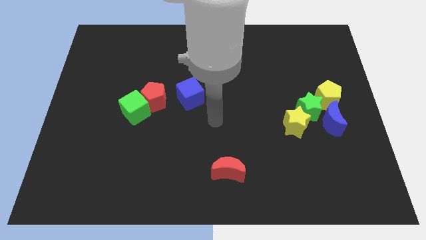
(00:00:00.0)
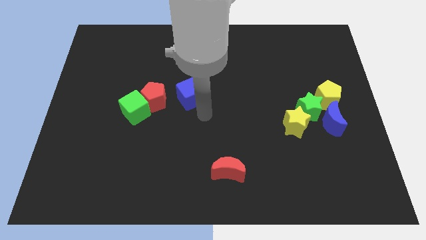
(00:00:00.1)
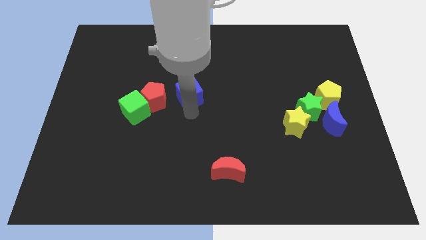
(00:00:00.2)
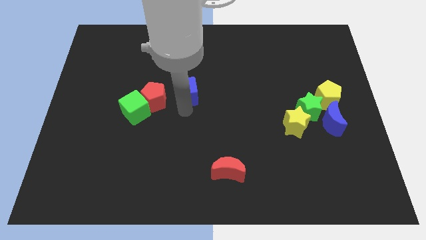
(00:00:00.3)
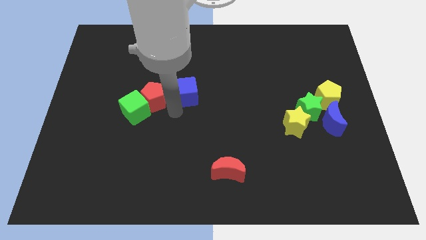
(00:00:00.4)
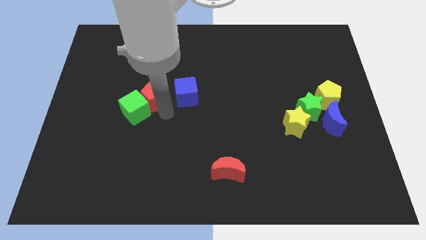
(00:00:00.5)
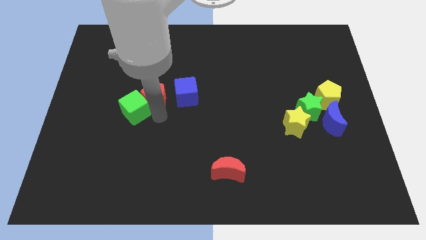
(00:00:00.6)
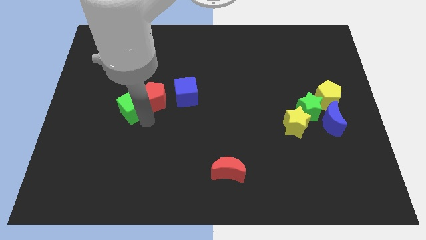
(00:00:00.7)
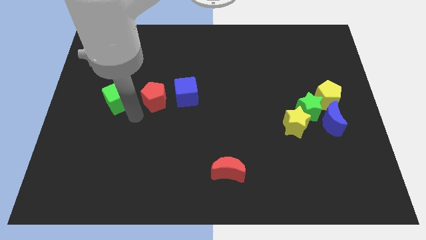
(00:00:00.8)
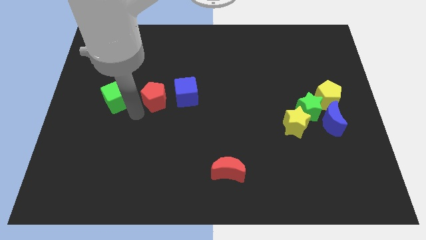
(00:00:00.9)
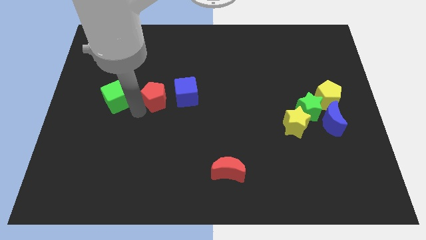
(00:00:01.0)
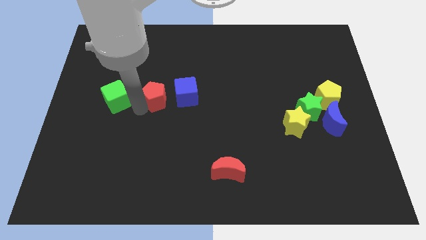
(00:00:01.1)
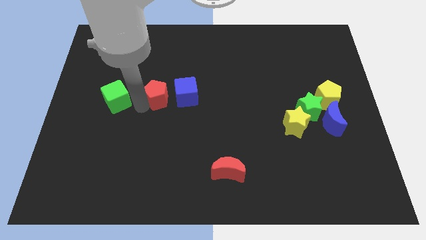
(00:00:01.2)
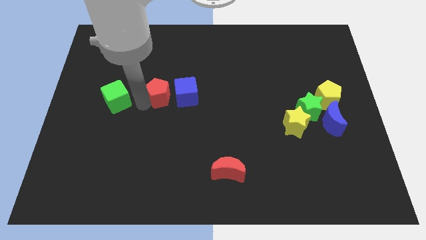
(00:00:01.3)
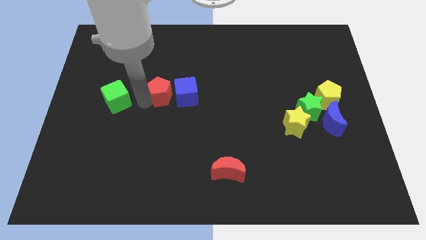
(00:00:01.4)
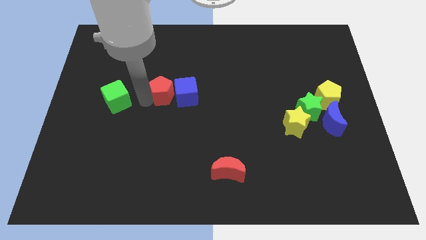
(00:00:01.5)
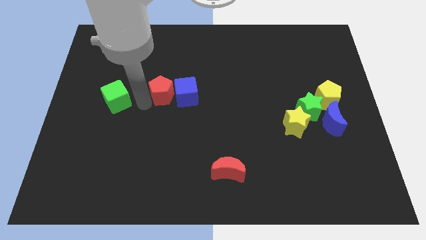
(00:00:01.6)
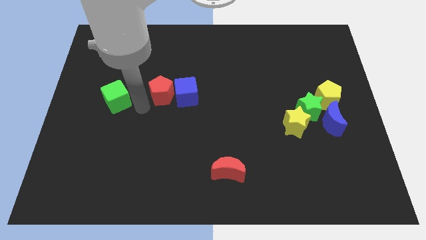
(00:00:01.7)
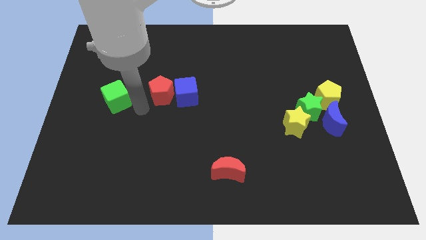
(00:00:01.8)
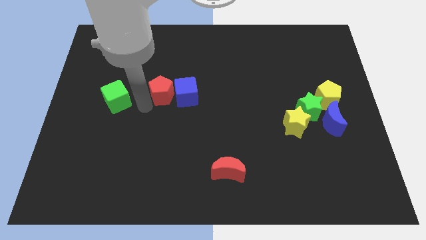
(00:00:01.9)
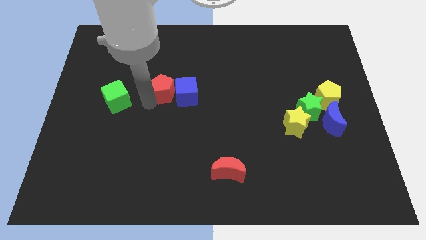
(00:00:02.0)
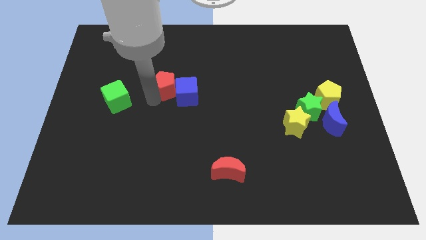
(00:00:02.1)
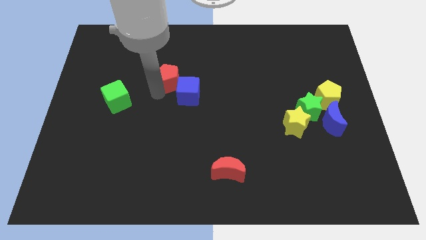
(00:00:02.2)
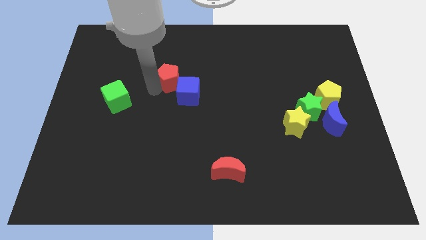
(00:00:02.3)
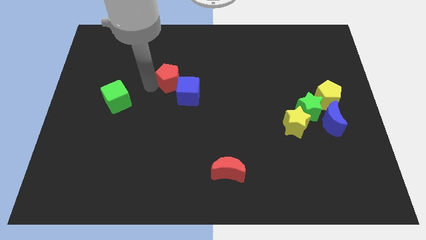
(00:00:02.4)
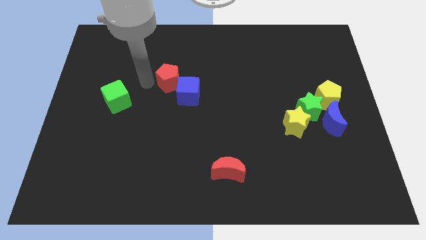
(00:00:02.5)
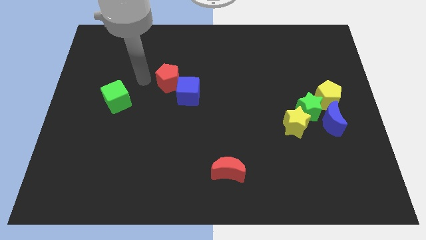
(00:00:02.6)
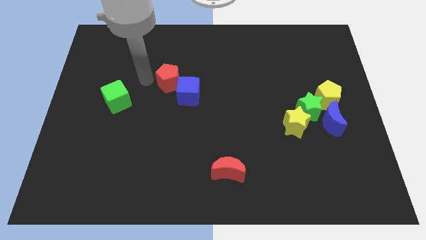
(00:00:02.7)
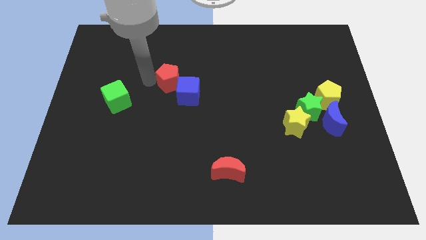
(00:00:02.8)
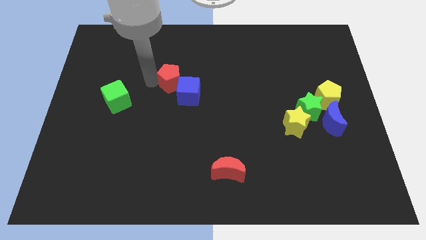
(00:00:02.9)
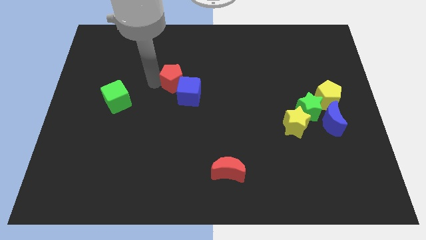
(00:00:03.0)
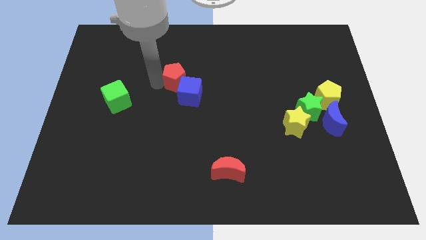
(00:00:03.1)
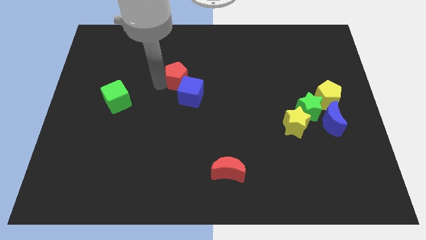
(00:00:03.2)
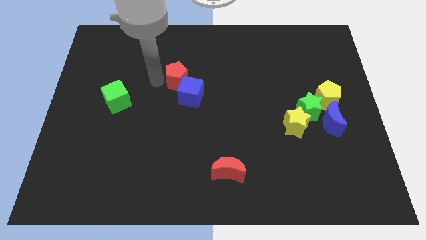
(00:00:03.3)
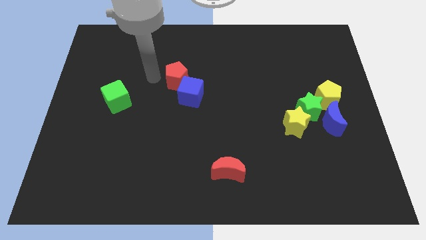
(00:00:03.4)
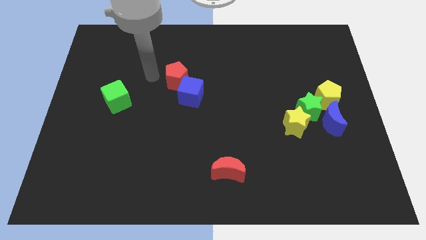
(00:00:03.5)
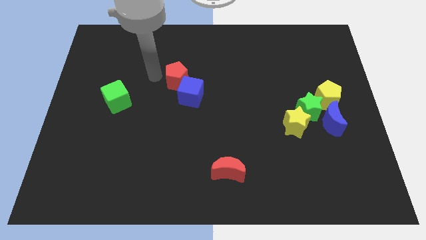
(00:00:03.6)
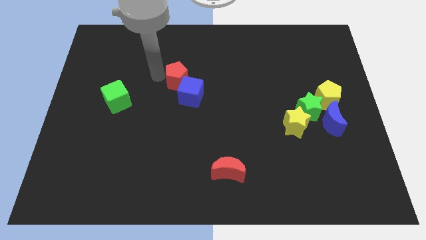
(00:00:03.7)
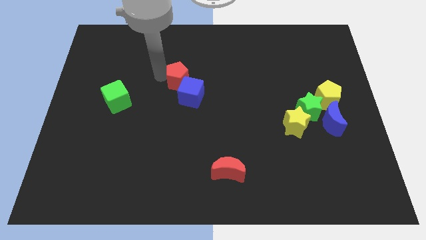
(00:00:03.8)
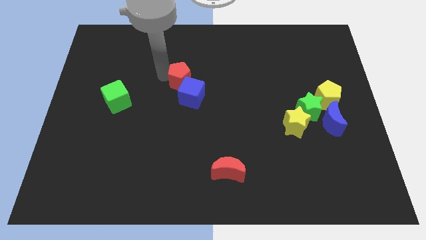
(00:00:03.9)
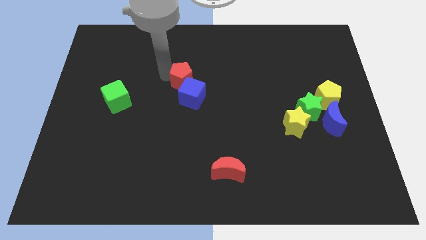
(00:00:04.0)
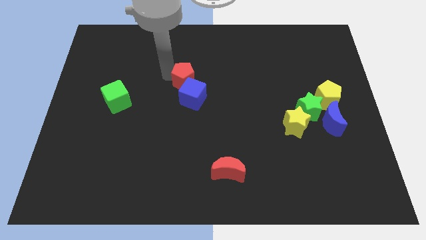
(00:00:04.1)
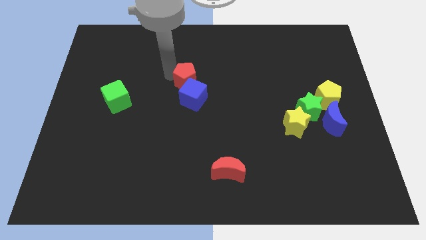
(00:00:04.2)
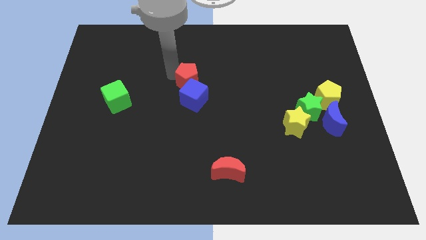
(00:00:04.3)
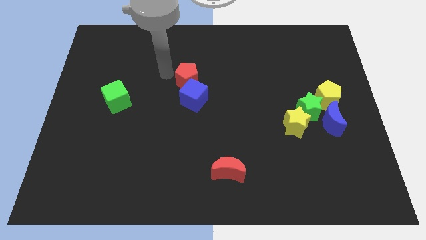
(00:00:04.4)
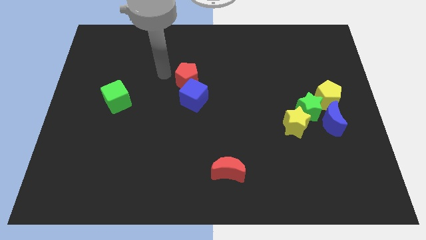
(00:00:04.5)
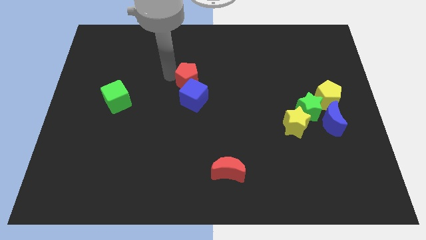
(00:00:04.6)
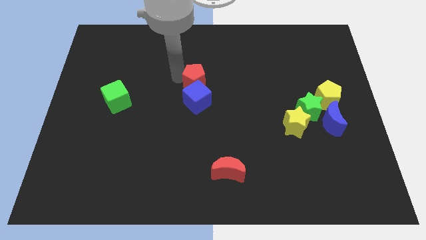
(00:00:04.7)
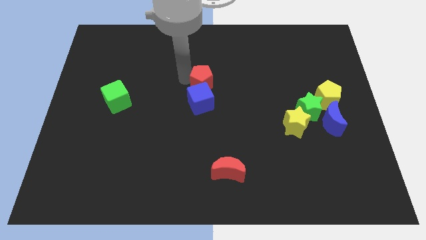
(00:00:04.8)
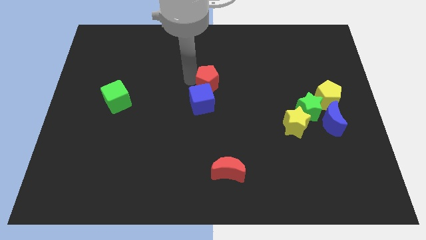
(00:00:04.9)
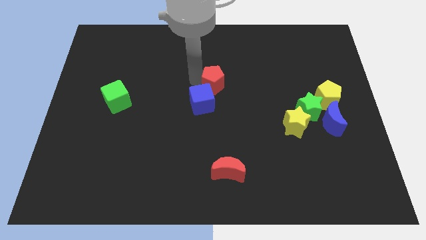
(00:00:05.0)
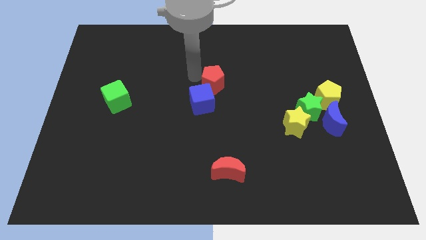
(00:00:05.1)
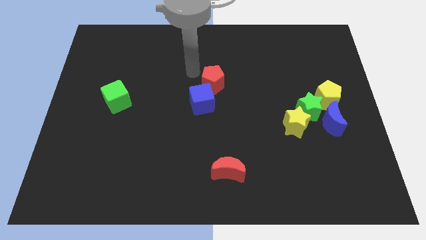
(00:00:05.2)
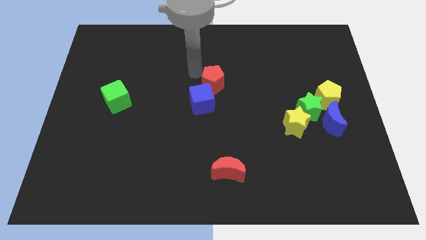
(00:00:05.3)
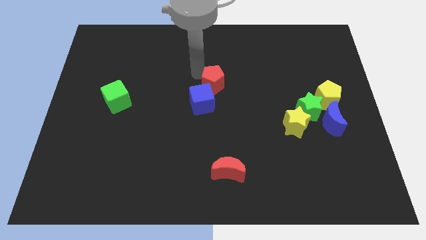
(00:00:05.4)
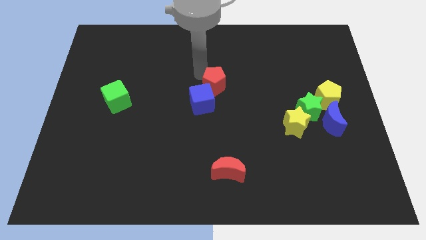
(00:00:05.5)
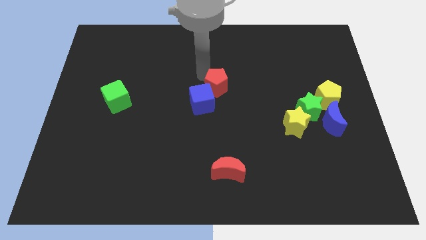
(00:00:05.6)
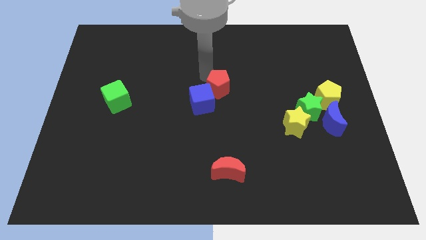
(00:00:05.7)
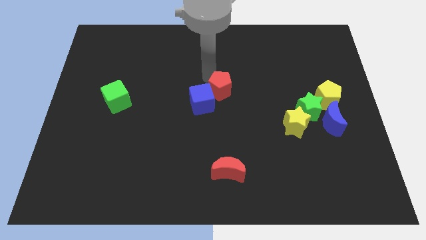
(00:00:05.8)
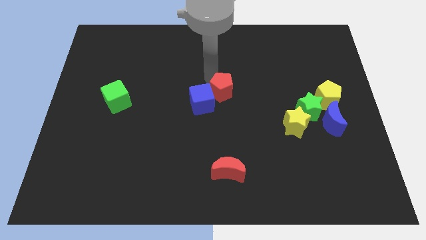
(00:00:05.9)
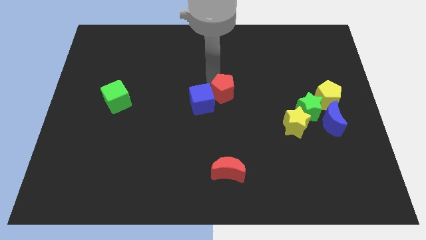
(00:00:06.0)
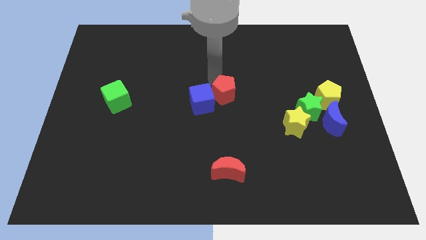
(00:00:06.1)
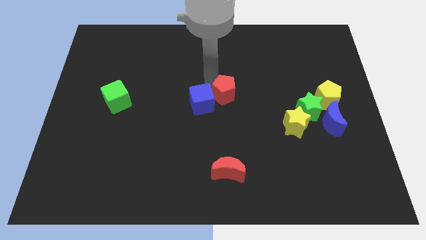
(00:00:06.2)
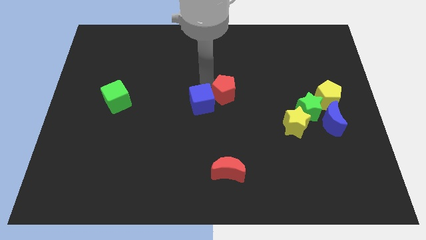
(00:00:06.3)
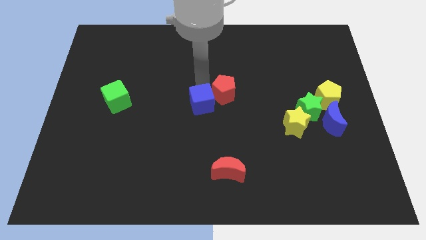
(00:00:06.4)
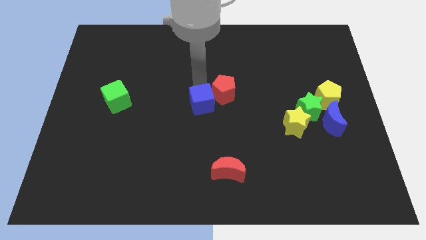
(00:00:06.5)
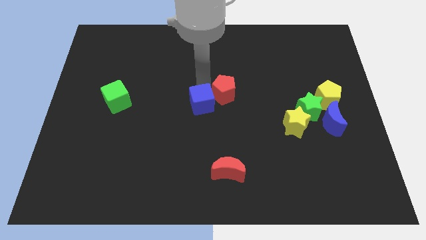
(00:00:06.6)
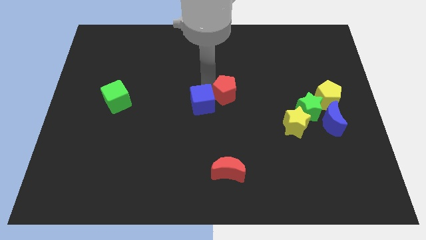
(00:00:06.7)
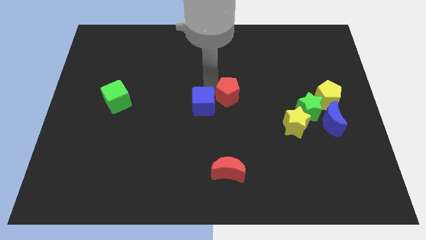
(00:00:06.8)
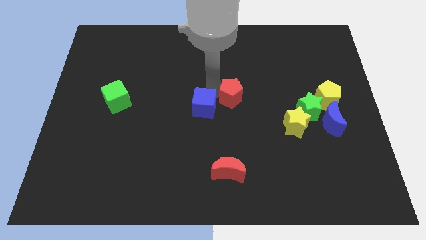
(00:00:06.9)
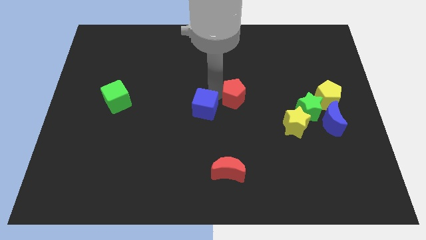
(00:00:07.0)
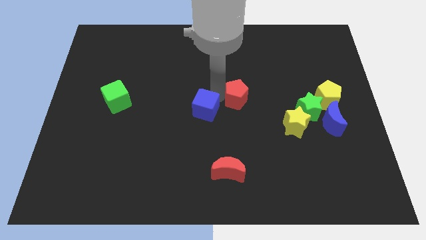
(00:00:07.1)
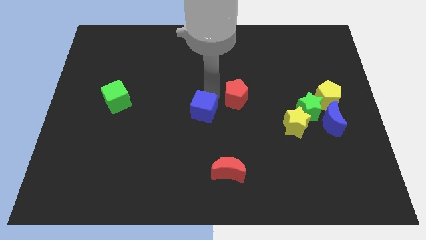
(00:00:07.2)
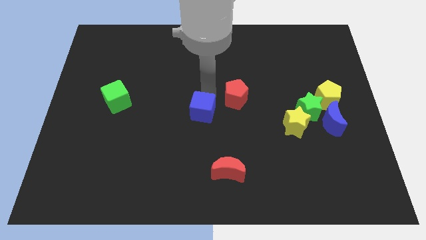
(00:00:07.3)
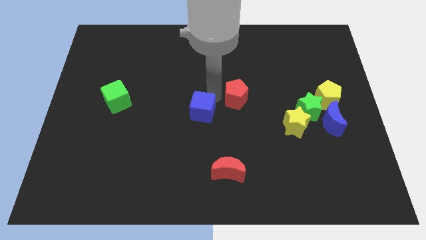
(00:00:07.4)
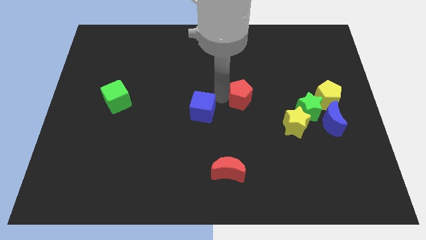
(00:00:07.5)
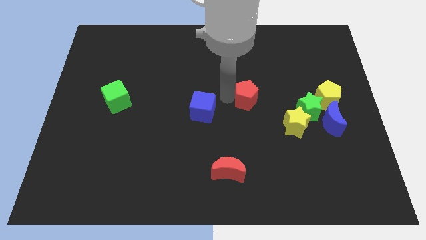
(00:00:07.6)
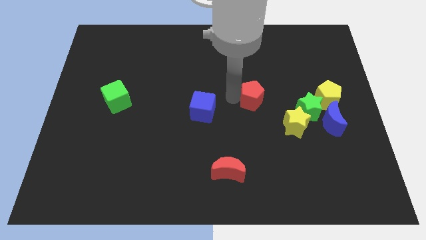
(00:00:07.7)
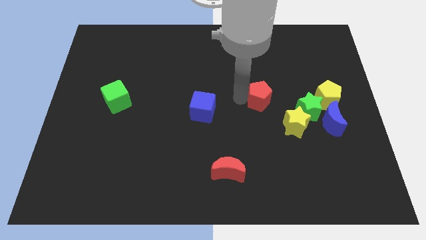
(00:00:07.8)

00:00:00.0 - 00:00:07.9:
slide the red pentagon just left of the yellow pentagon
